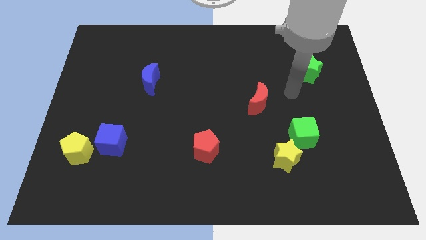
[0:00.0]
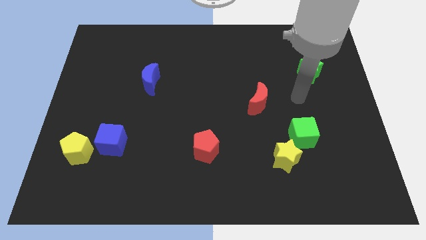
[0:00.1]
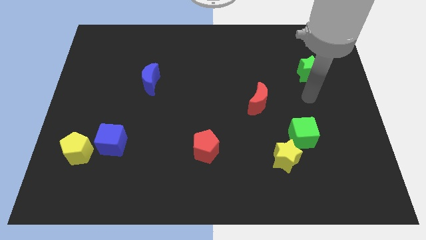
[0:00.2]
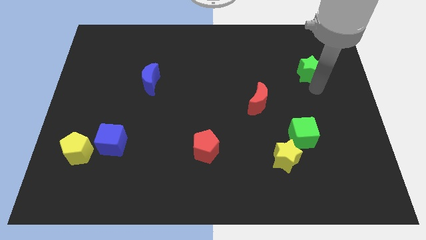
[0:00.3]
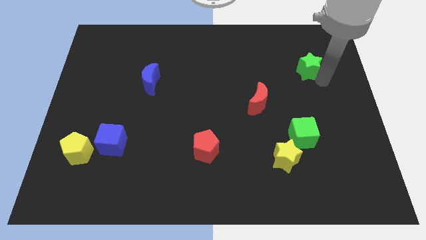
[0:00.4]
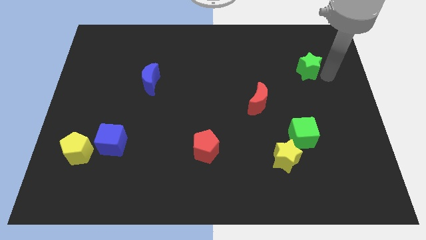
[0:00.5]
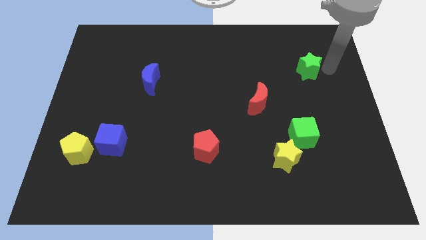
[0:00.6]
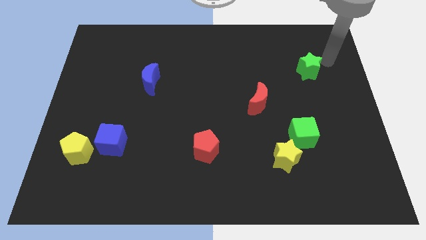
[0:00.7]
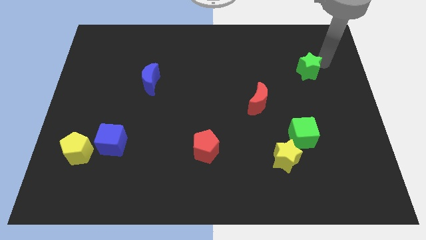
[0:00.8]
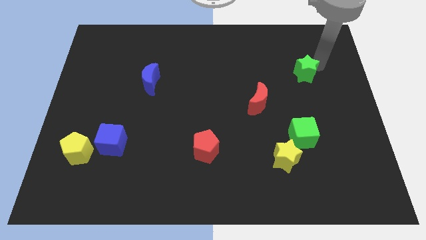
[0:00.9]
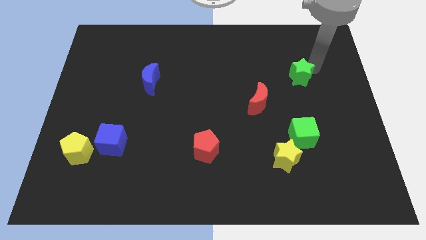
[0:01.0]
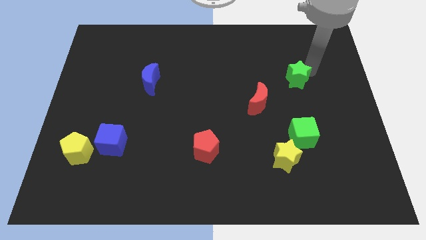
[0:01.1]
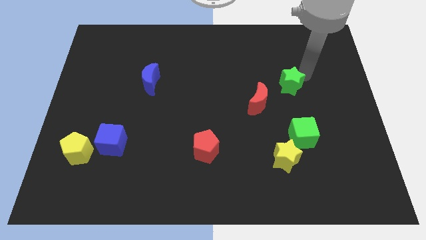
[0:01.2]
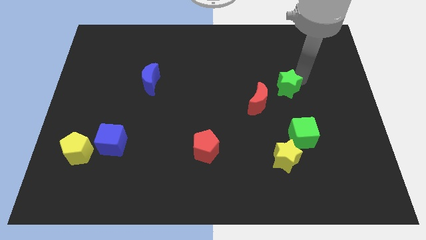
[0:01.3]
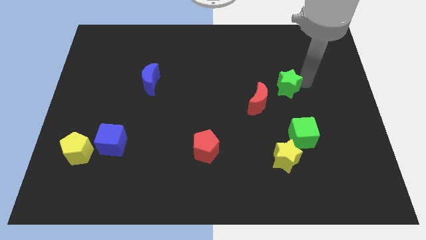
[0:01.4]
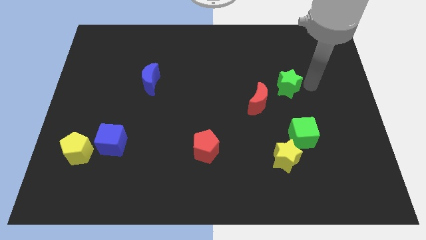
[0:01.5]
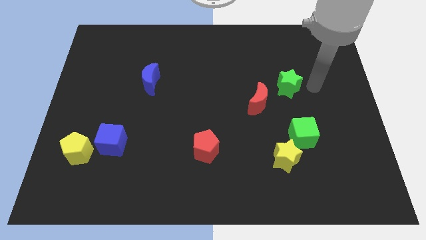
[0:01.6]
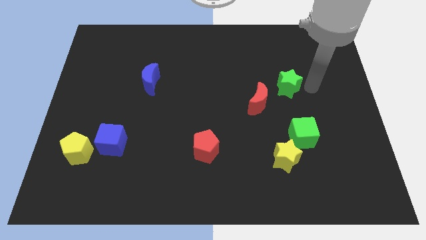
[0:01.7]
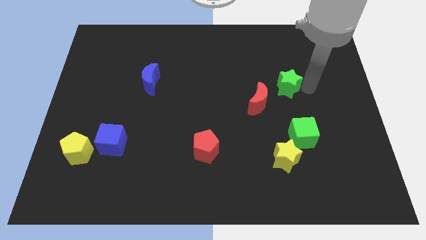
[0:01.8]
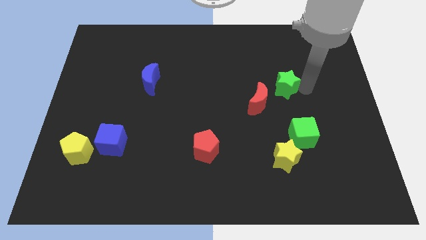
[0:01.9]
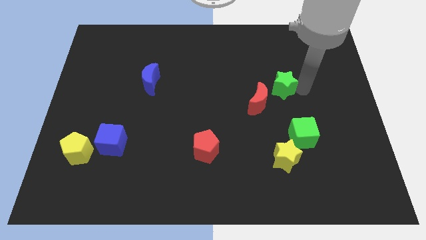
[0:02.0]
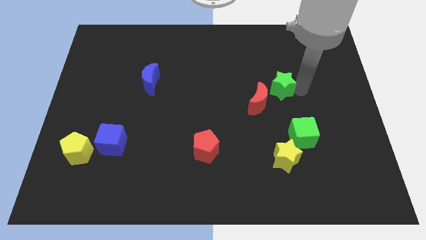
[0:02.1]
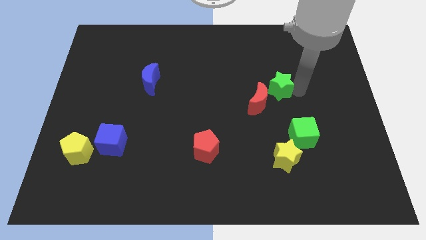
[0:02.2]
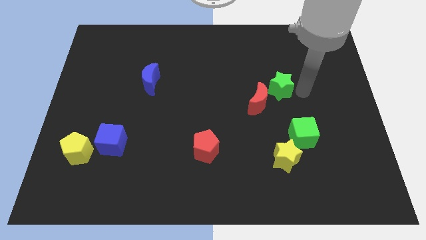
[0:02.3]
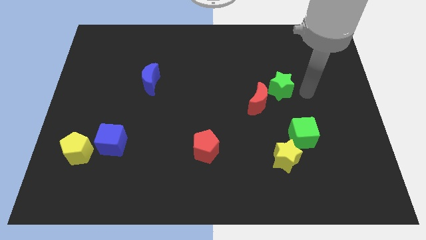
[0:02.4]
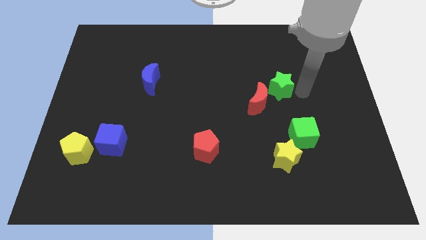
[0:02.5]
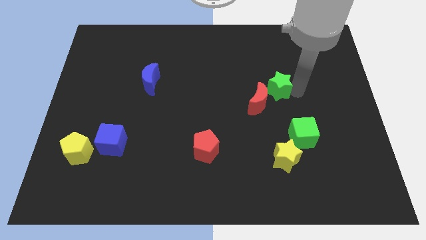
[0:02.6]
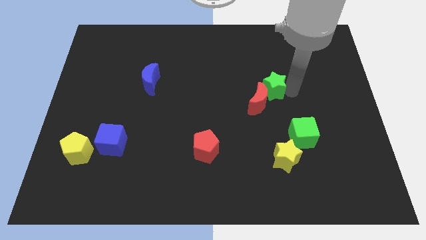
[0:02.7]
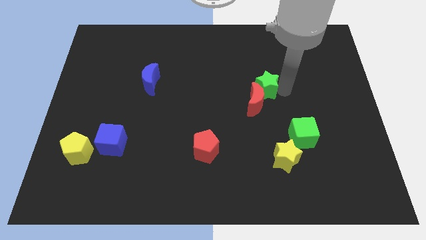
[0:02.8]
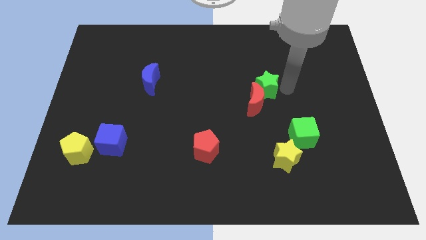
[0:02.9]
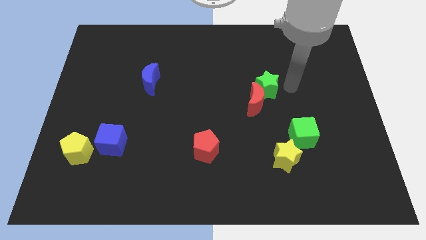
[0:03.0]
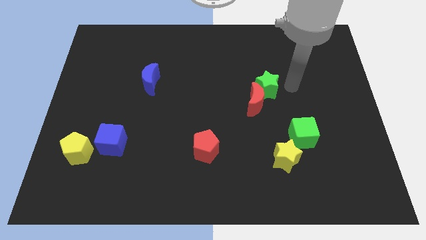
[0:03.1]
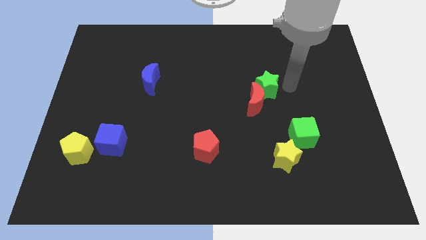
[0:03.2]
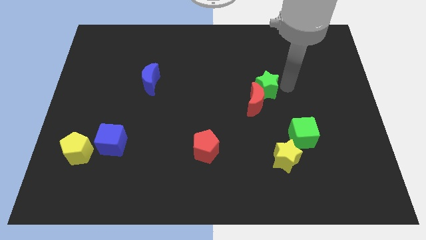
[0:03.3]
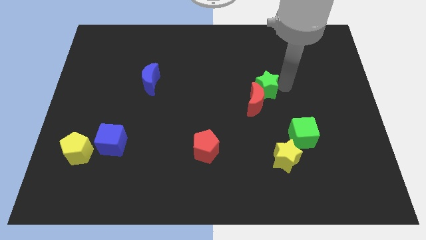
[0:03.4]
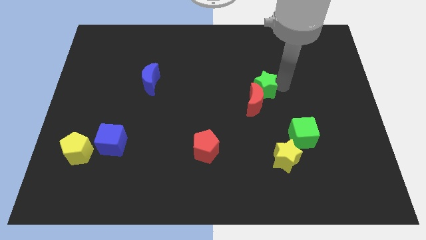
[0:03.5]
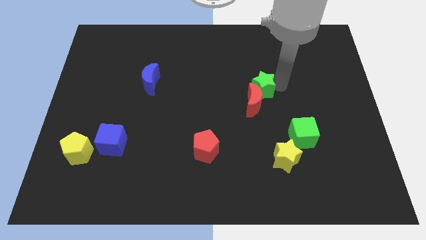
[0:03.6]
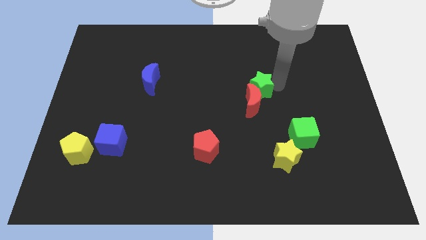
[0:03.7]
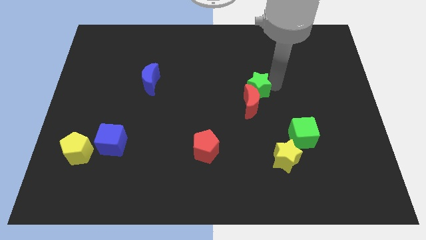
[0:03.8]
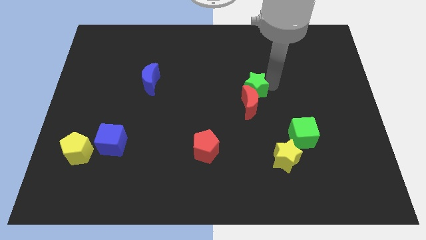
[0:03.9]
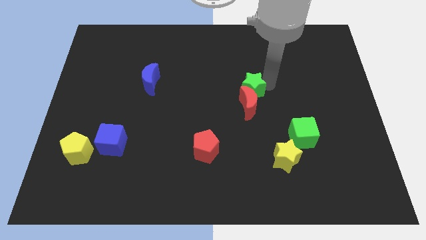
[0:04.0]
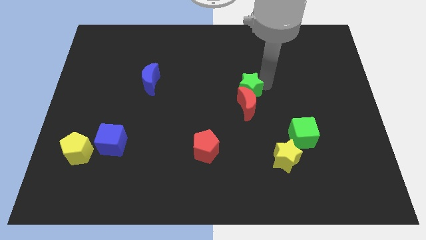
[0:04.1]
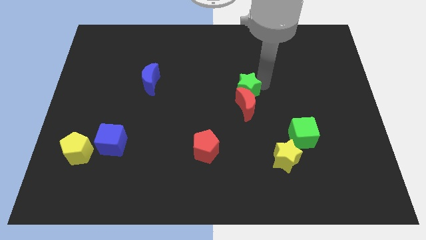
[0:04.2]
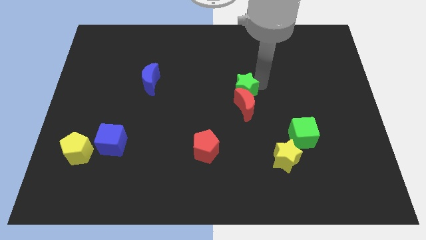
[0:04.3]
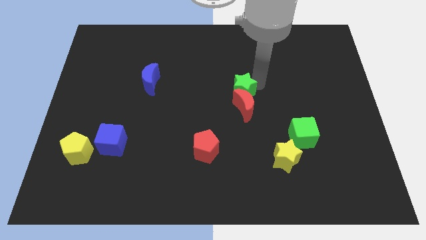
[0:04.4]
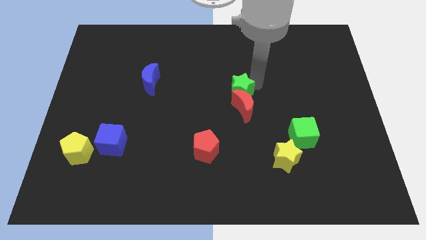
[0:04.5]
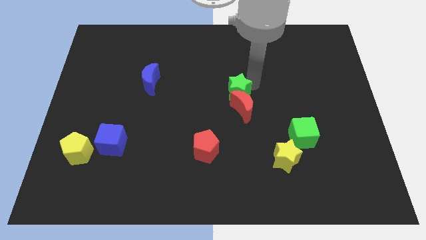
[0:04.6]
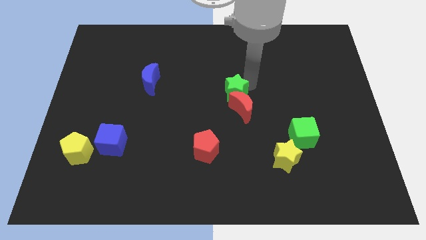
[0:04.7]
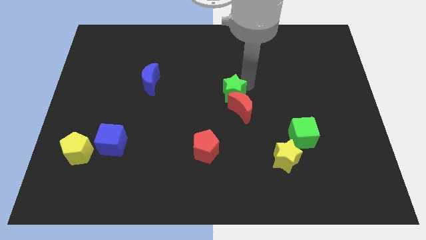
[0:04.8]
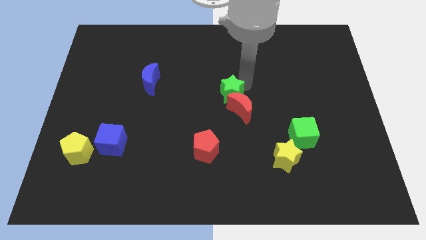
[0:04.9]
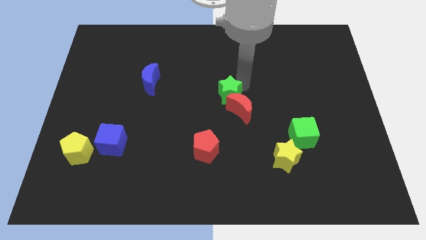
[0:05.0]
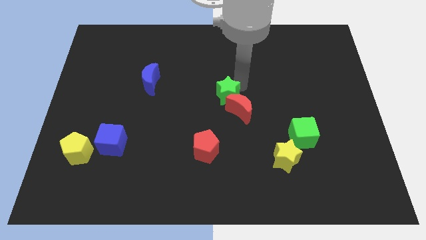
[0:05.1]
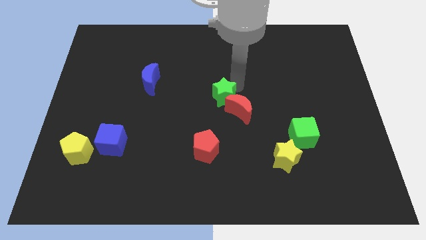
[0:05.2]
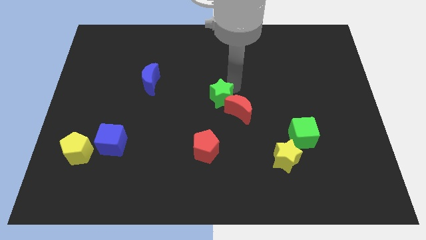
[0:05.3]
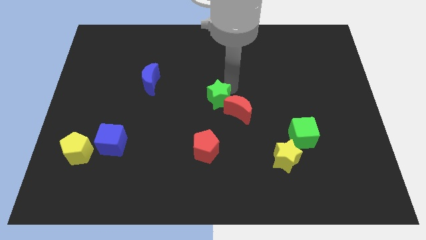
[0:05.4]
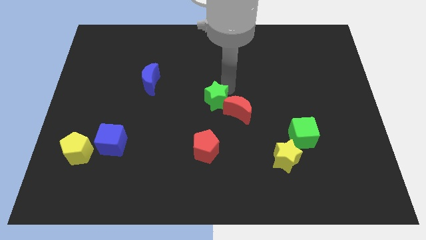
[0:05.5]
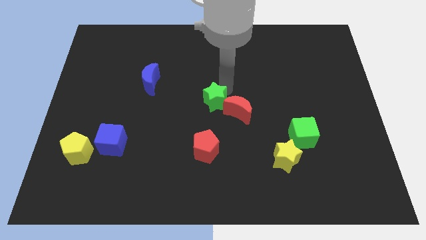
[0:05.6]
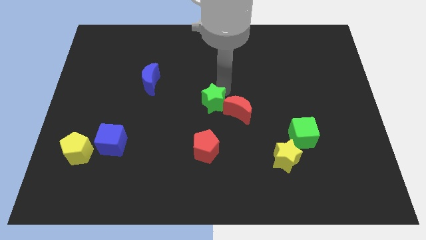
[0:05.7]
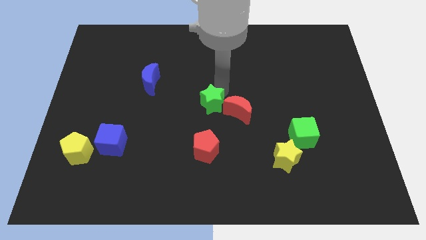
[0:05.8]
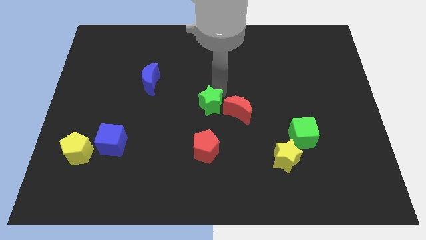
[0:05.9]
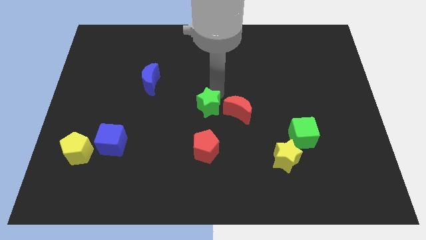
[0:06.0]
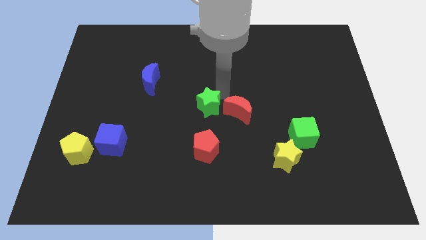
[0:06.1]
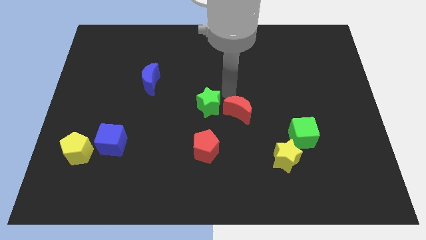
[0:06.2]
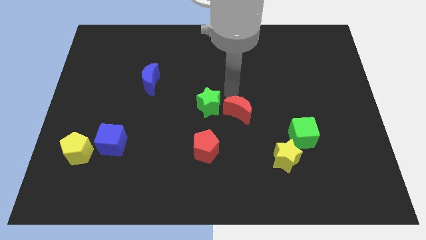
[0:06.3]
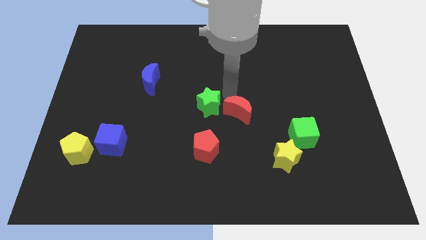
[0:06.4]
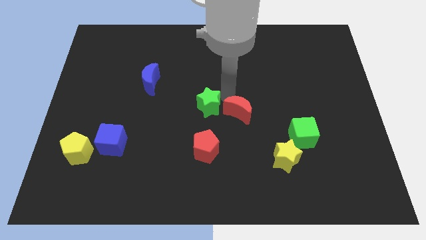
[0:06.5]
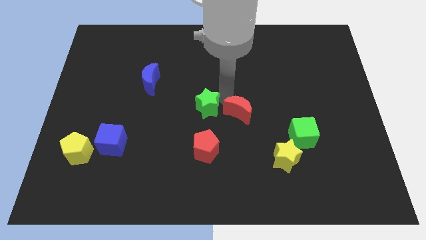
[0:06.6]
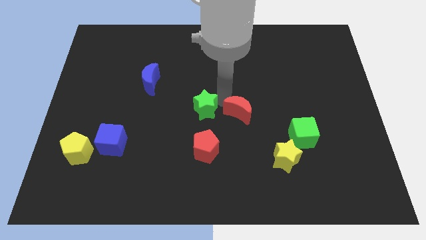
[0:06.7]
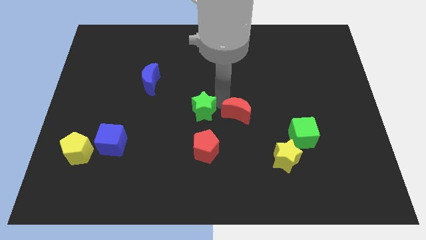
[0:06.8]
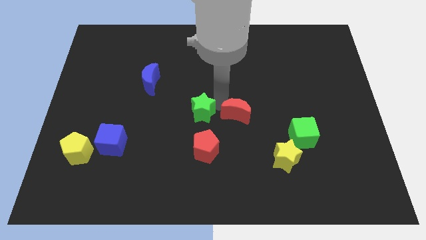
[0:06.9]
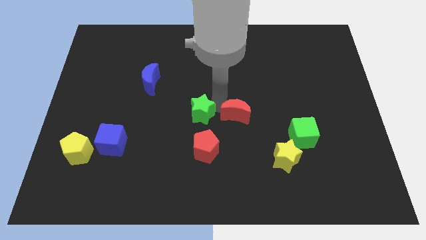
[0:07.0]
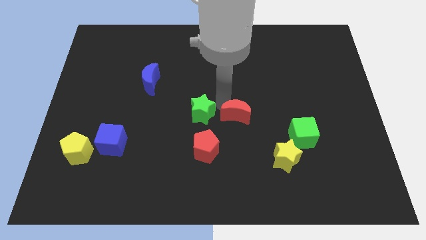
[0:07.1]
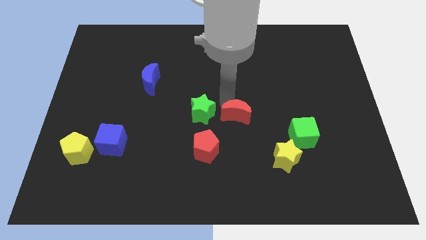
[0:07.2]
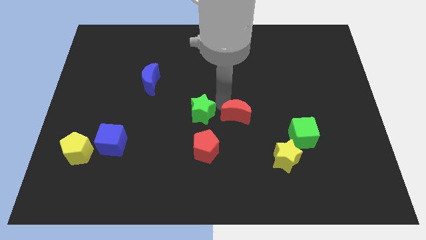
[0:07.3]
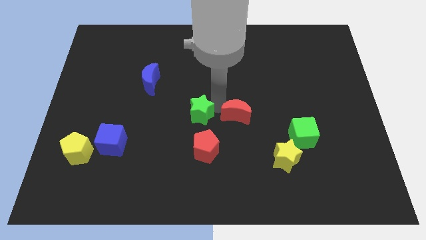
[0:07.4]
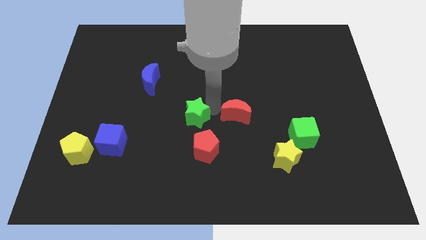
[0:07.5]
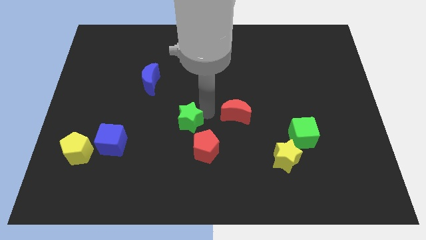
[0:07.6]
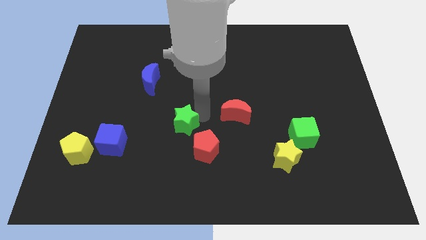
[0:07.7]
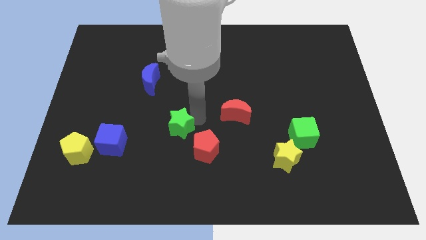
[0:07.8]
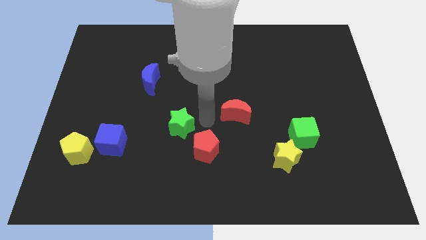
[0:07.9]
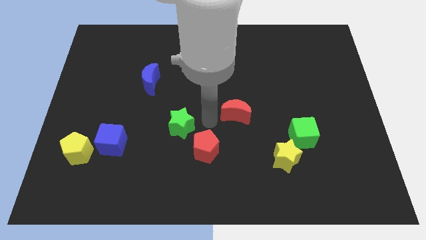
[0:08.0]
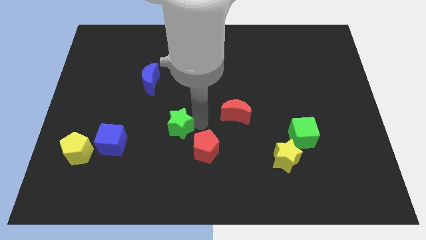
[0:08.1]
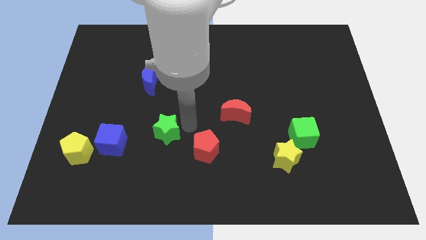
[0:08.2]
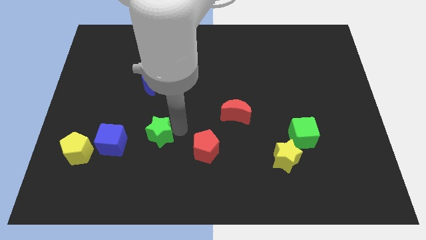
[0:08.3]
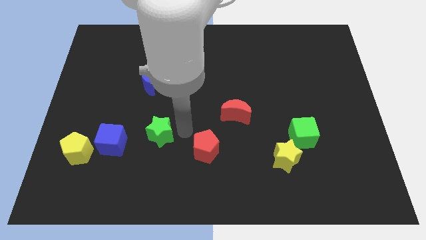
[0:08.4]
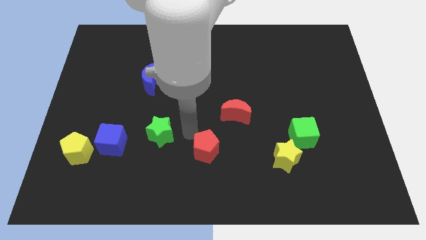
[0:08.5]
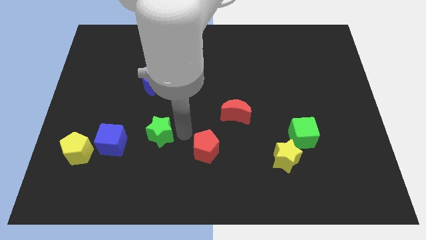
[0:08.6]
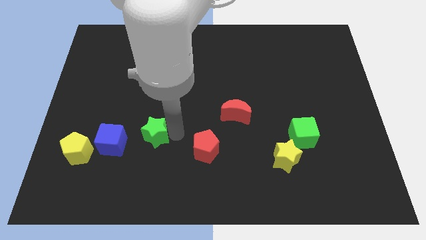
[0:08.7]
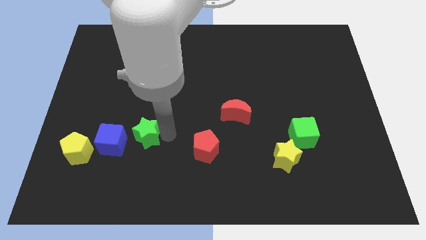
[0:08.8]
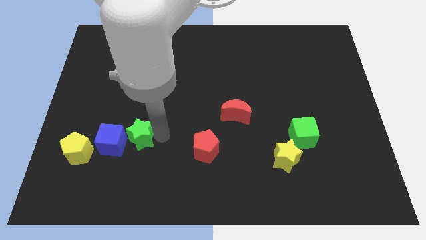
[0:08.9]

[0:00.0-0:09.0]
put the green star close to the blue cube
